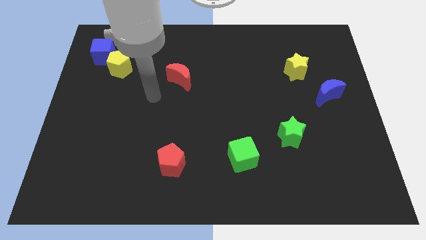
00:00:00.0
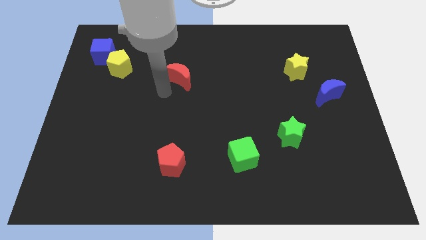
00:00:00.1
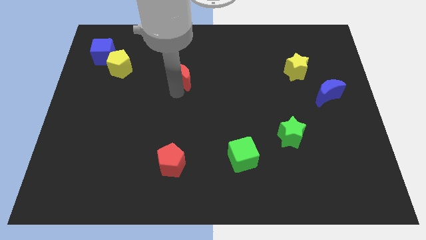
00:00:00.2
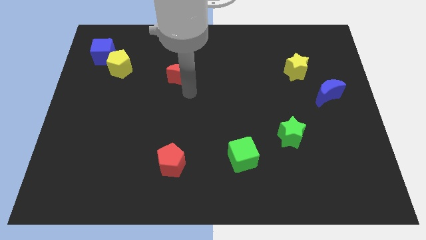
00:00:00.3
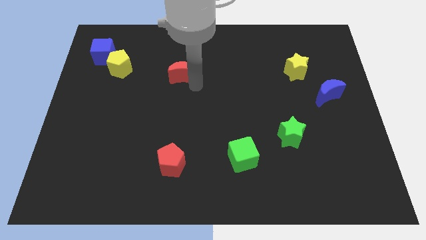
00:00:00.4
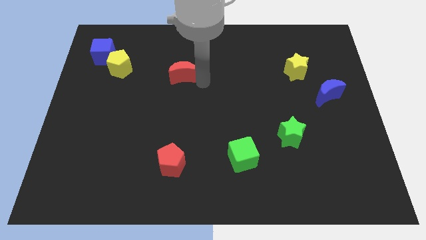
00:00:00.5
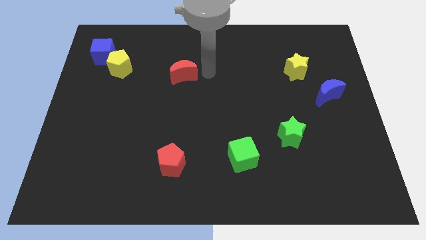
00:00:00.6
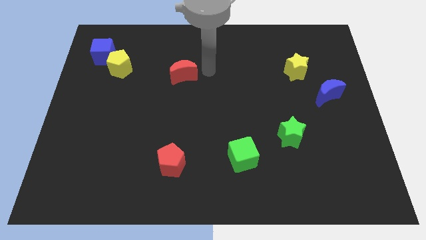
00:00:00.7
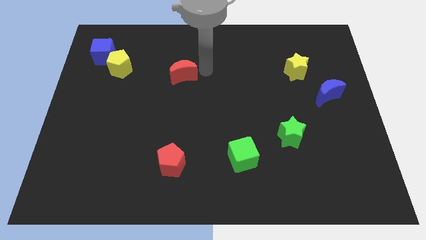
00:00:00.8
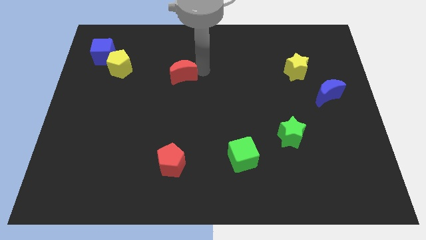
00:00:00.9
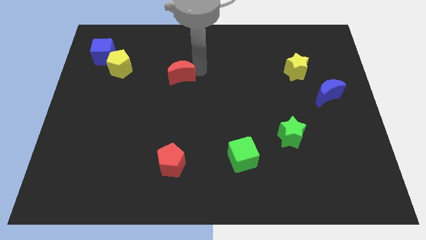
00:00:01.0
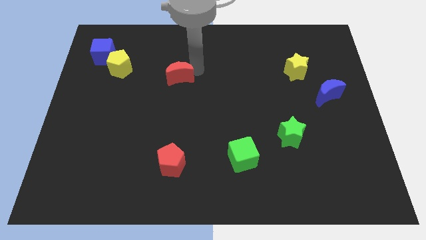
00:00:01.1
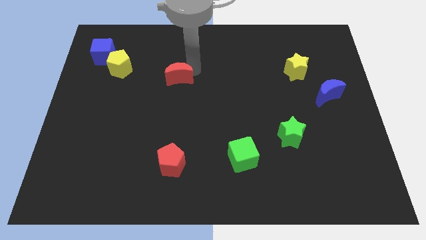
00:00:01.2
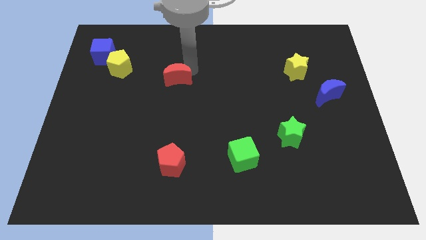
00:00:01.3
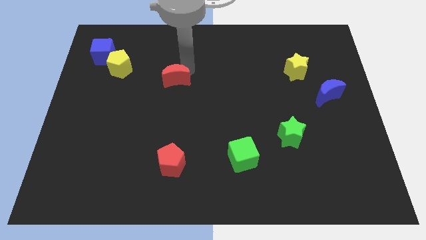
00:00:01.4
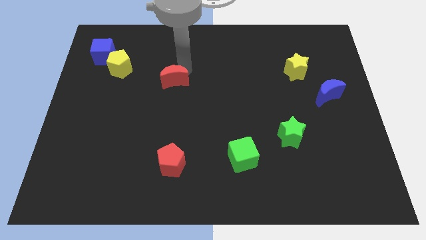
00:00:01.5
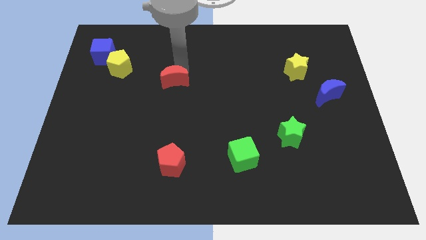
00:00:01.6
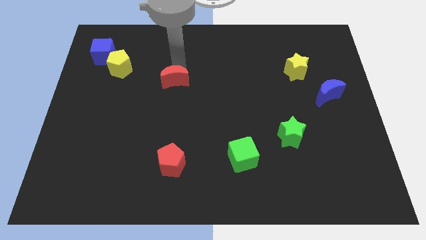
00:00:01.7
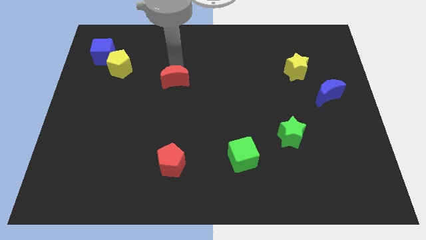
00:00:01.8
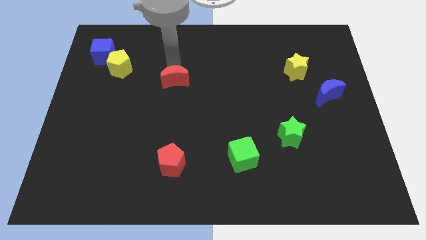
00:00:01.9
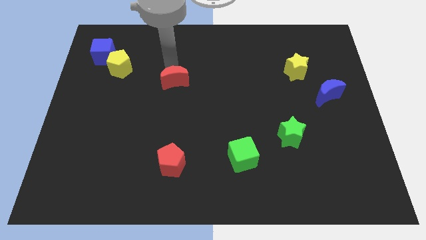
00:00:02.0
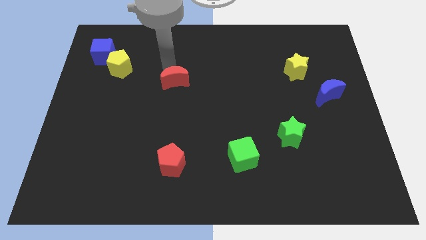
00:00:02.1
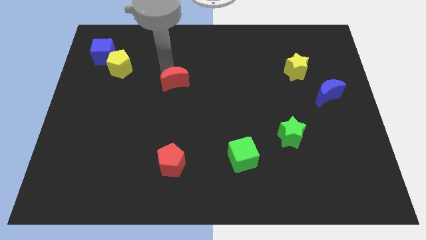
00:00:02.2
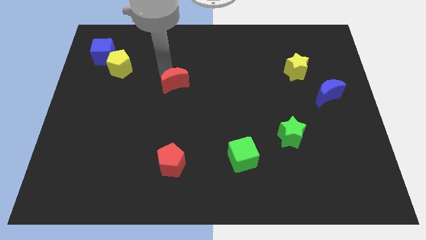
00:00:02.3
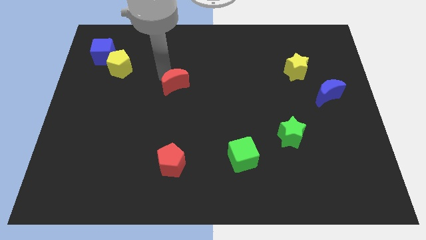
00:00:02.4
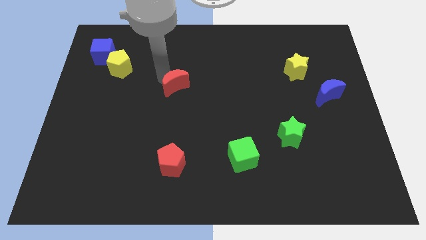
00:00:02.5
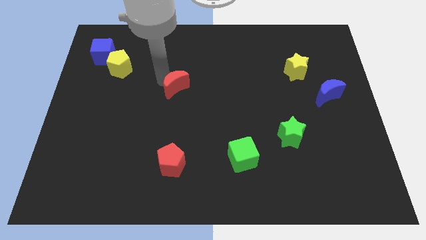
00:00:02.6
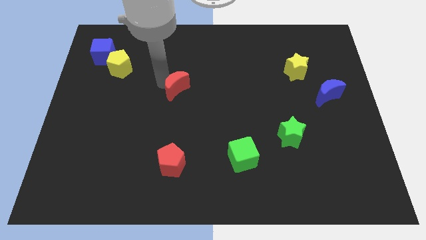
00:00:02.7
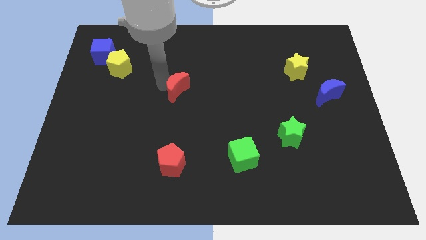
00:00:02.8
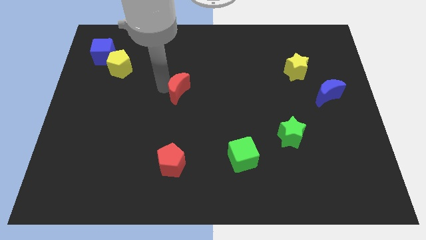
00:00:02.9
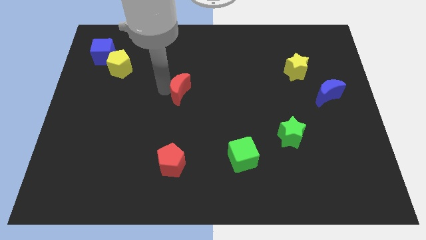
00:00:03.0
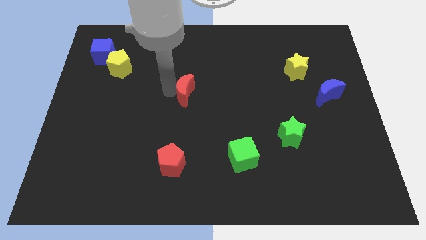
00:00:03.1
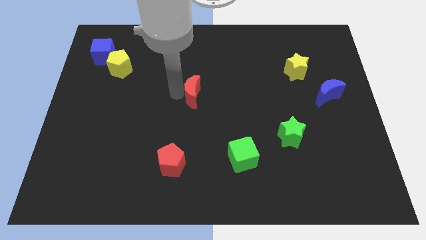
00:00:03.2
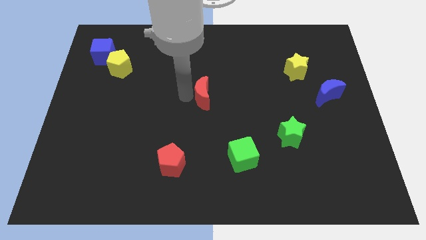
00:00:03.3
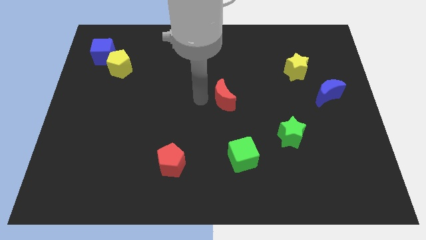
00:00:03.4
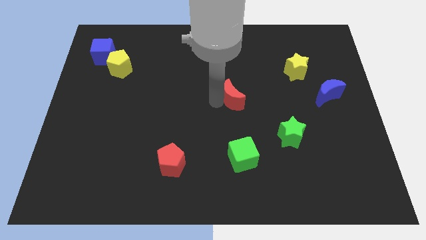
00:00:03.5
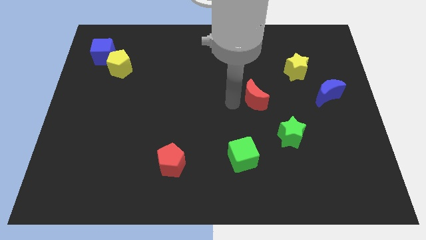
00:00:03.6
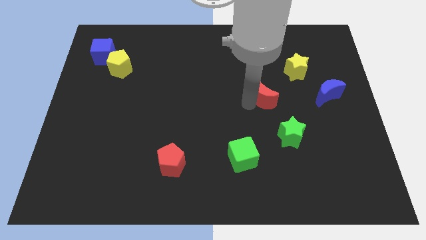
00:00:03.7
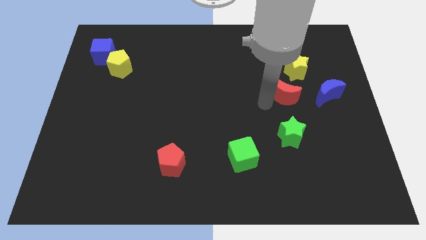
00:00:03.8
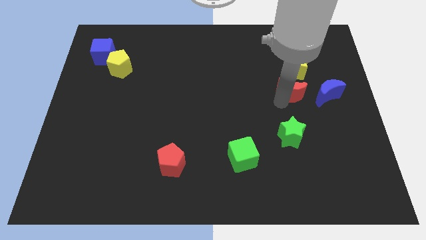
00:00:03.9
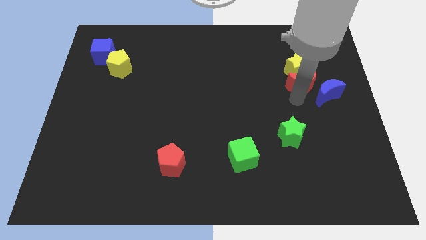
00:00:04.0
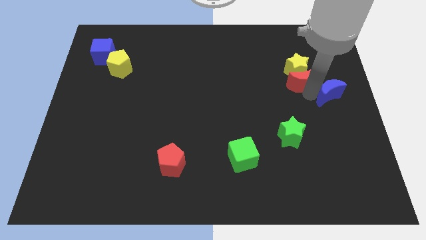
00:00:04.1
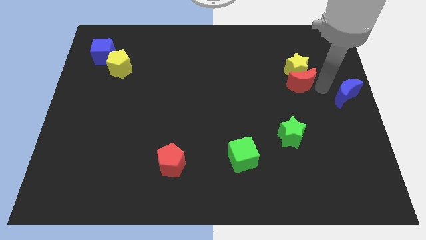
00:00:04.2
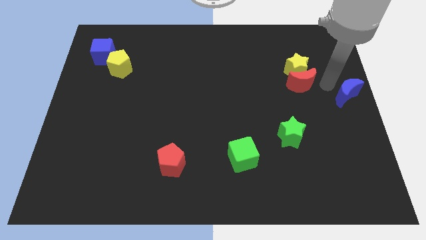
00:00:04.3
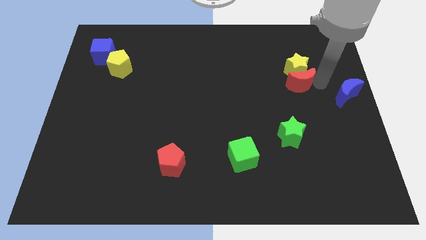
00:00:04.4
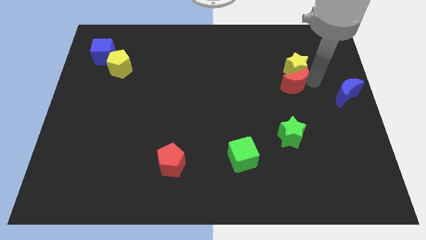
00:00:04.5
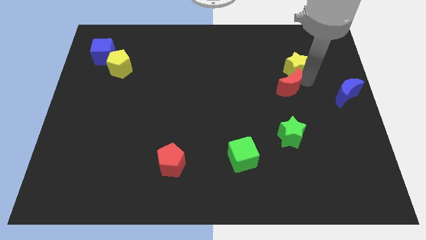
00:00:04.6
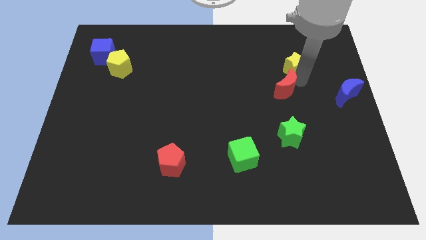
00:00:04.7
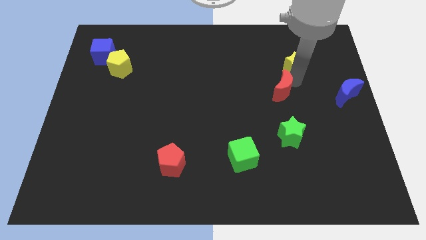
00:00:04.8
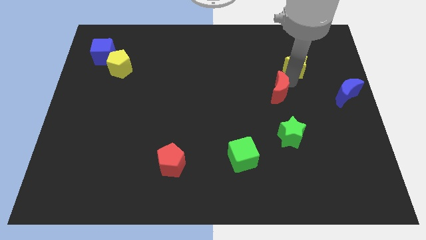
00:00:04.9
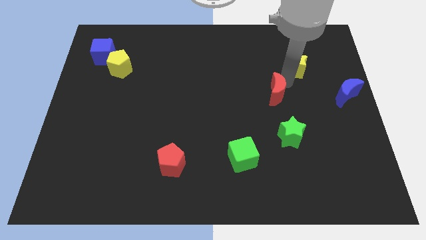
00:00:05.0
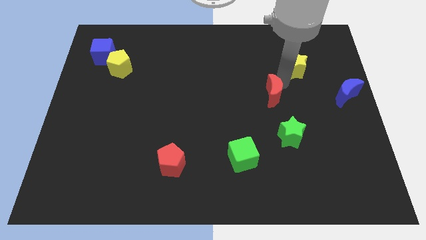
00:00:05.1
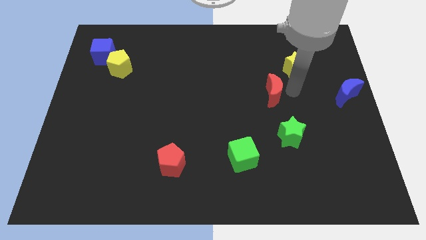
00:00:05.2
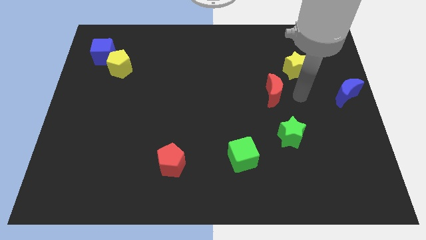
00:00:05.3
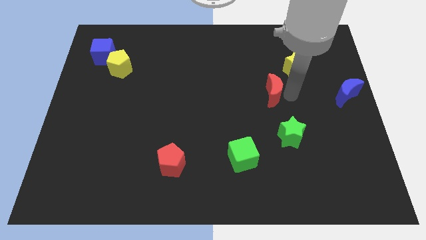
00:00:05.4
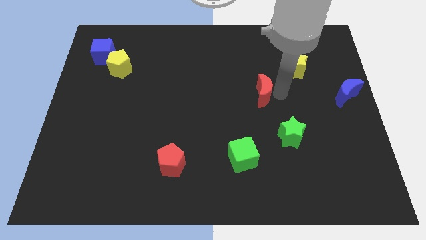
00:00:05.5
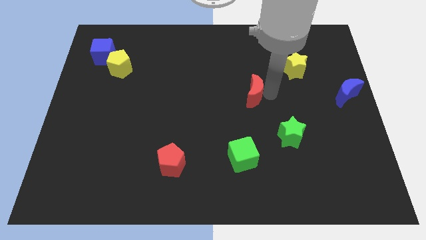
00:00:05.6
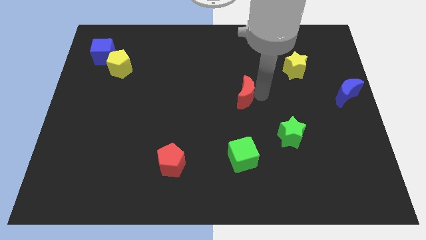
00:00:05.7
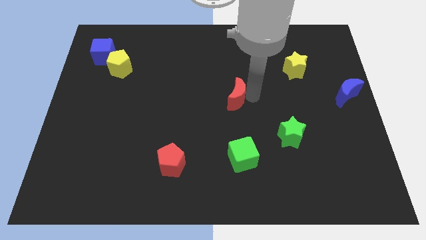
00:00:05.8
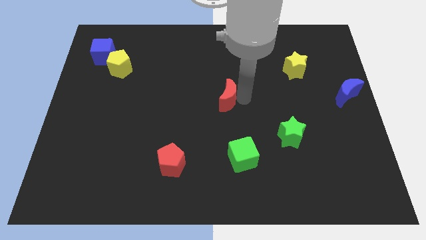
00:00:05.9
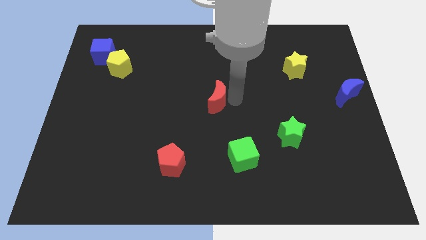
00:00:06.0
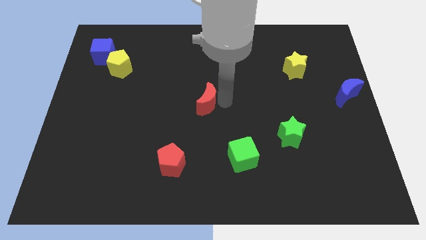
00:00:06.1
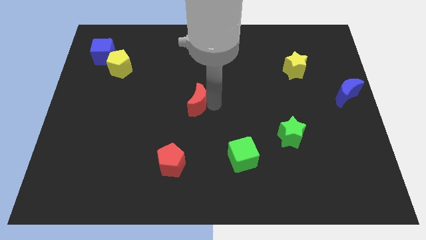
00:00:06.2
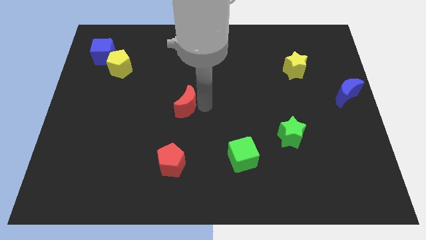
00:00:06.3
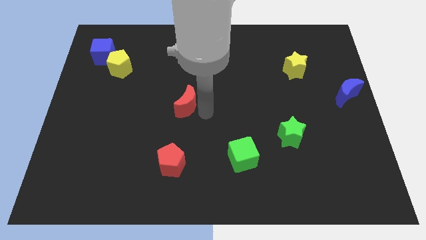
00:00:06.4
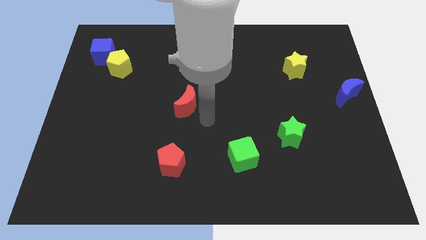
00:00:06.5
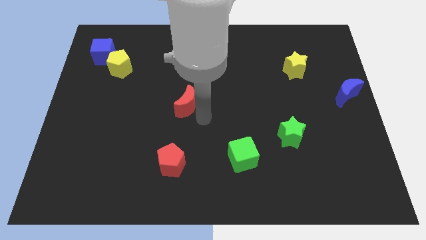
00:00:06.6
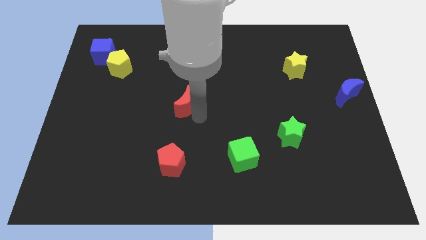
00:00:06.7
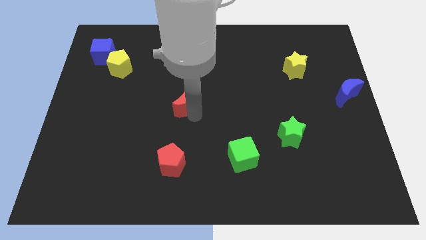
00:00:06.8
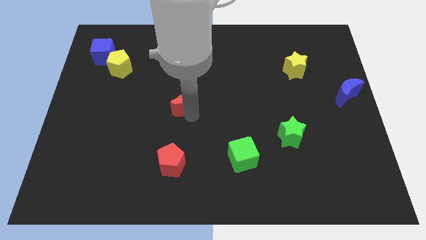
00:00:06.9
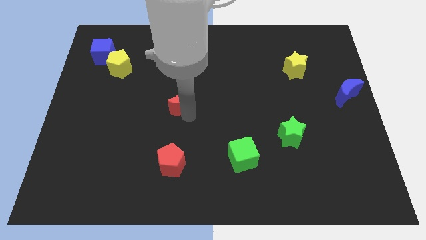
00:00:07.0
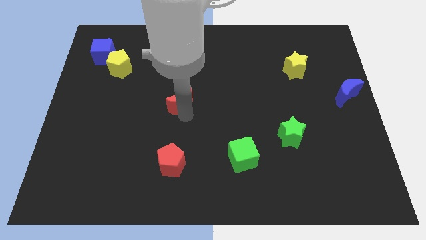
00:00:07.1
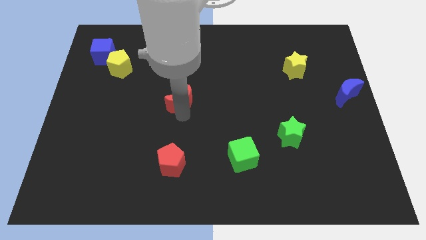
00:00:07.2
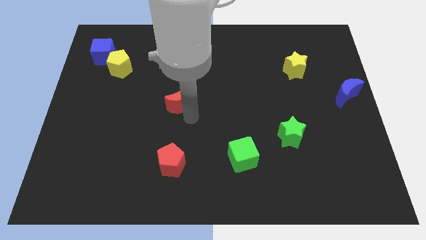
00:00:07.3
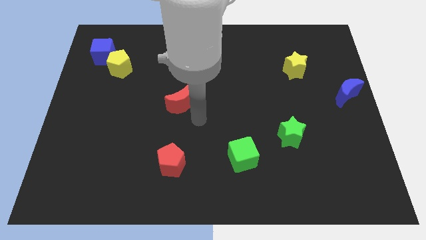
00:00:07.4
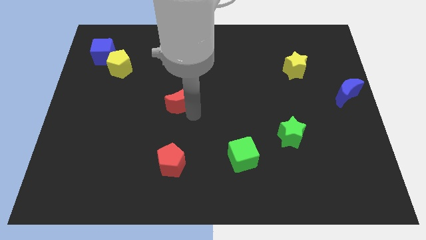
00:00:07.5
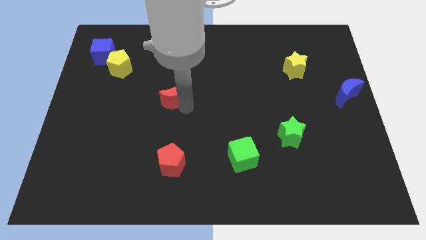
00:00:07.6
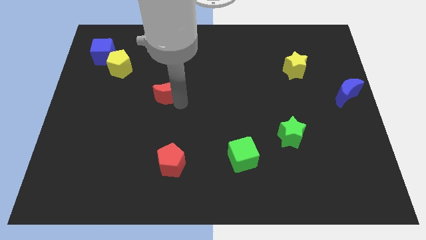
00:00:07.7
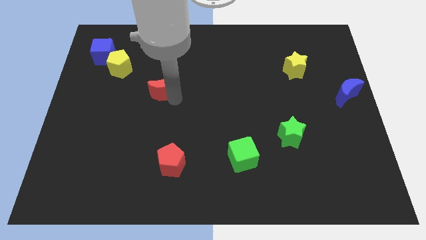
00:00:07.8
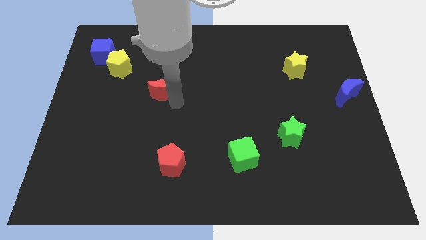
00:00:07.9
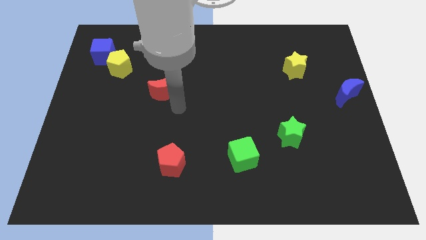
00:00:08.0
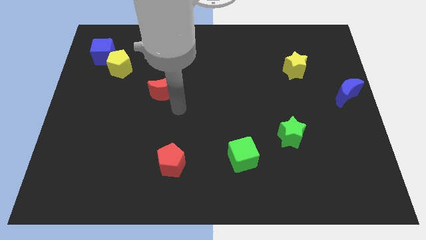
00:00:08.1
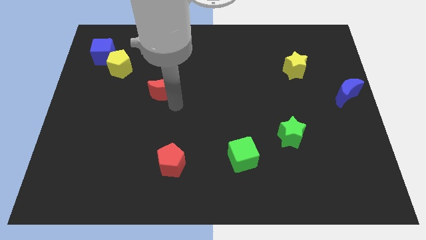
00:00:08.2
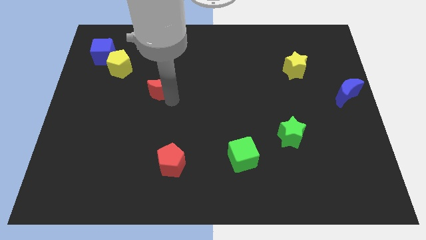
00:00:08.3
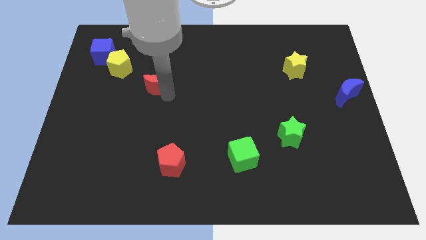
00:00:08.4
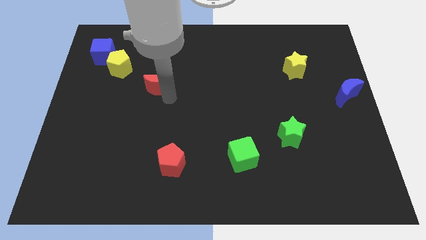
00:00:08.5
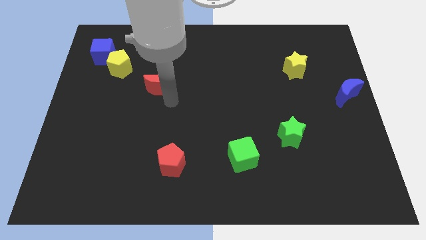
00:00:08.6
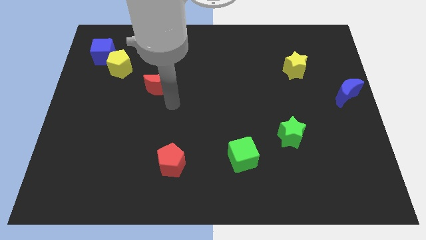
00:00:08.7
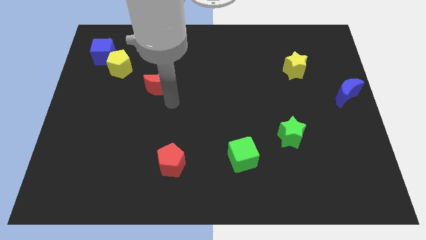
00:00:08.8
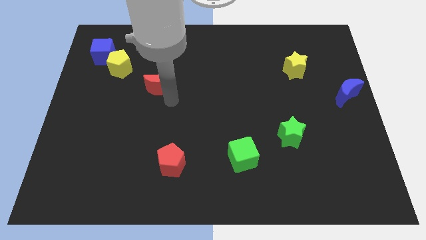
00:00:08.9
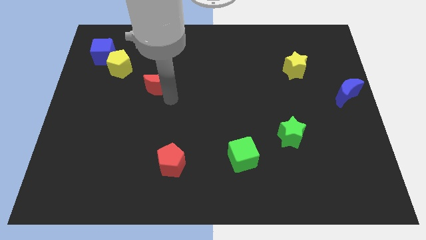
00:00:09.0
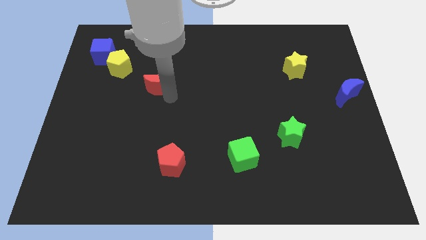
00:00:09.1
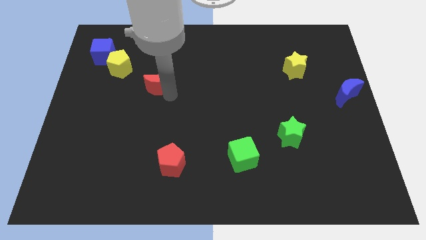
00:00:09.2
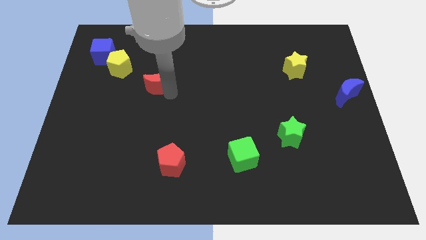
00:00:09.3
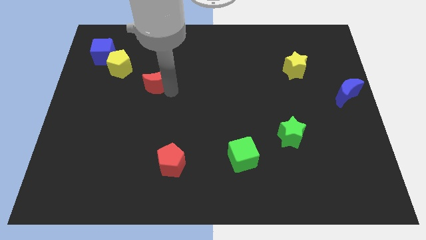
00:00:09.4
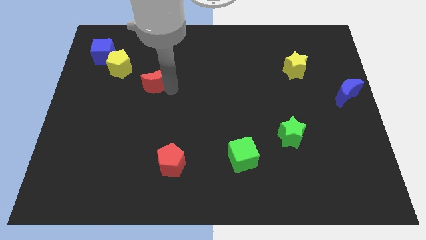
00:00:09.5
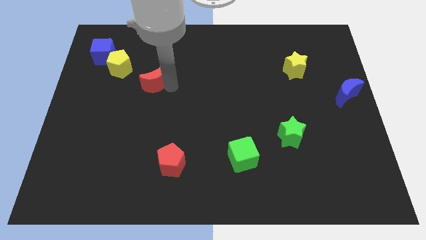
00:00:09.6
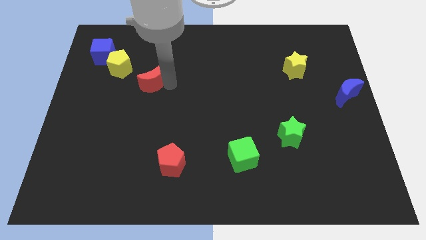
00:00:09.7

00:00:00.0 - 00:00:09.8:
move the red moon a bit to the left
